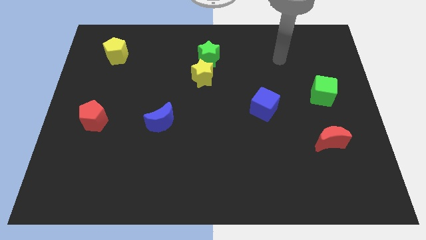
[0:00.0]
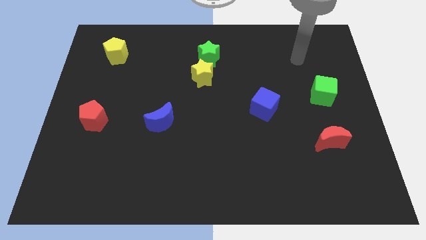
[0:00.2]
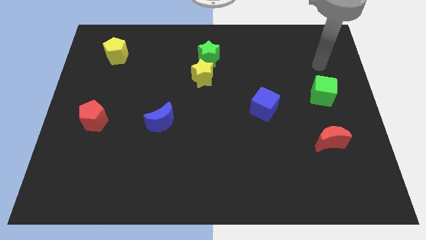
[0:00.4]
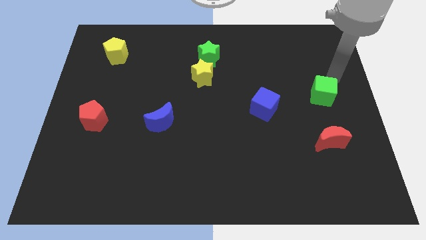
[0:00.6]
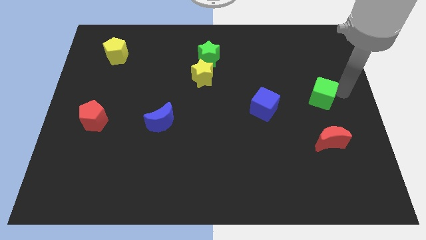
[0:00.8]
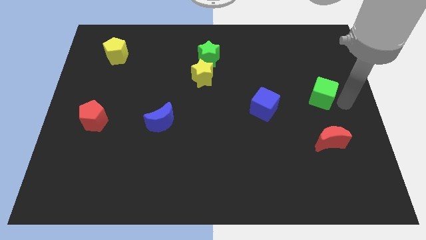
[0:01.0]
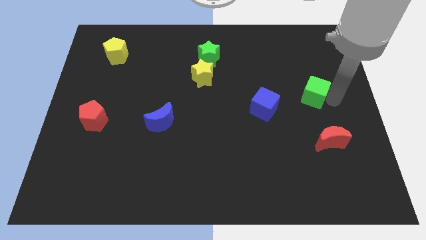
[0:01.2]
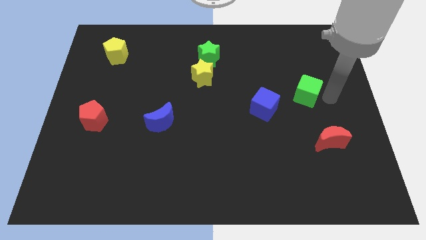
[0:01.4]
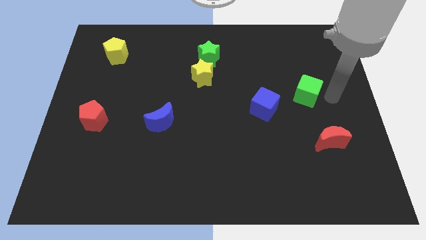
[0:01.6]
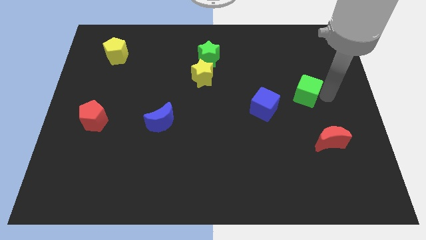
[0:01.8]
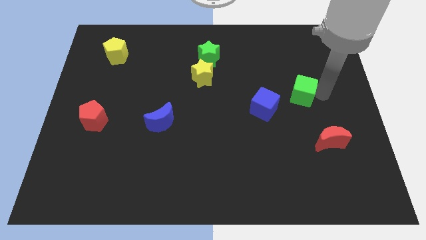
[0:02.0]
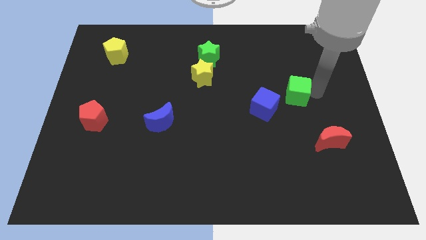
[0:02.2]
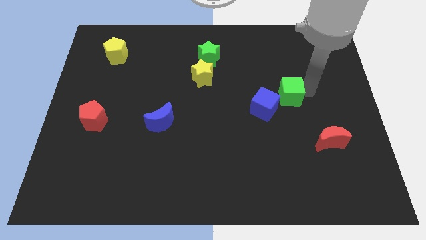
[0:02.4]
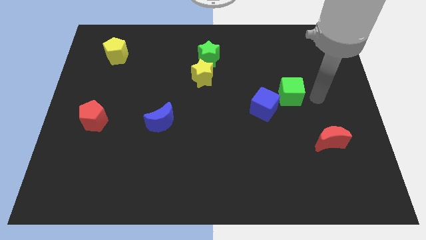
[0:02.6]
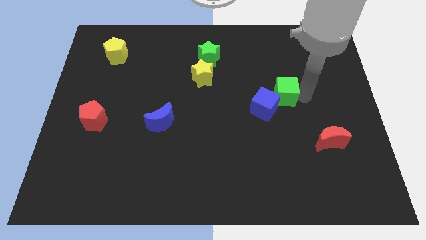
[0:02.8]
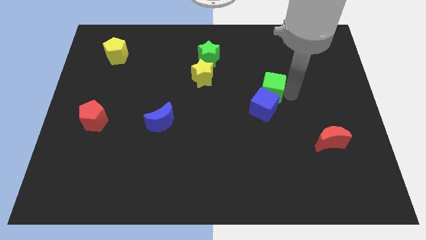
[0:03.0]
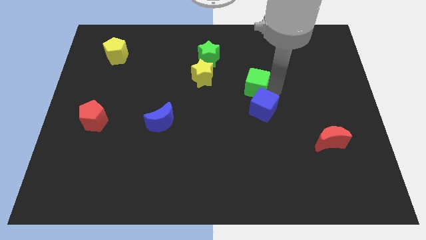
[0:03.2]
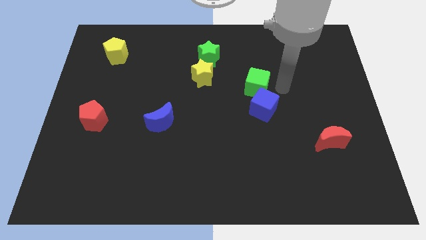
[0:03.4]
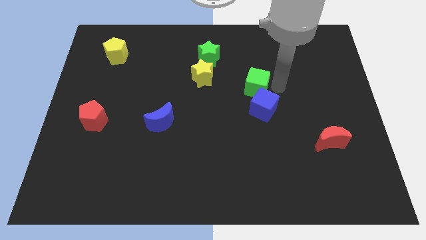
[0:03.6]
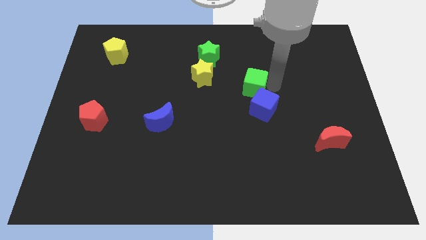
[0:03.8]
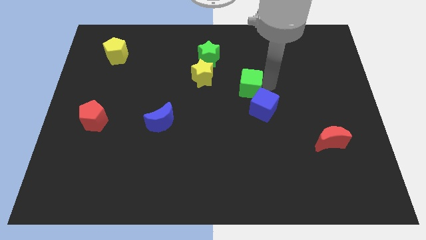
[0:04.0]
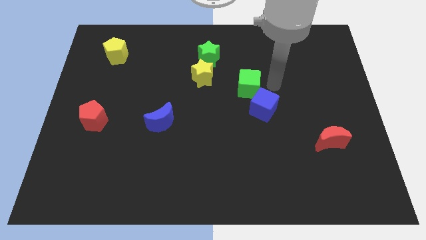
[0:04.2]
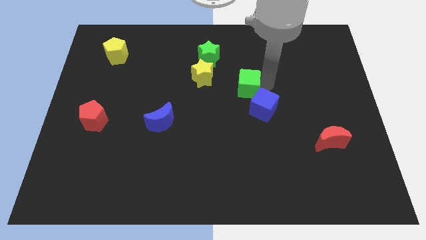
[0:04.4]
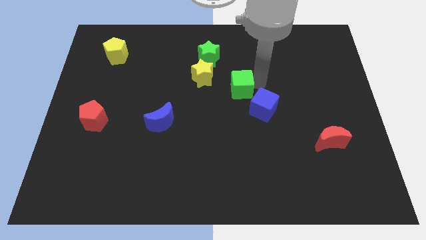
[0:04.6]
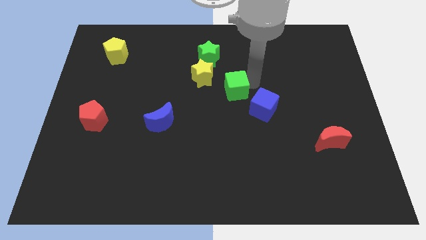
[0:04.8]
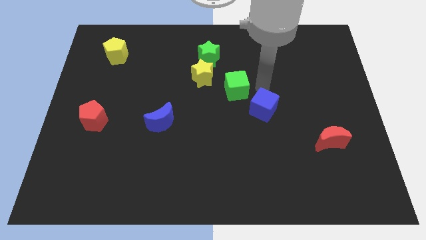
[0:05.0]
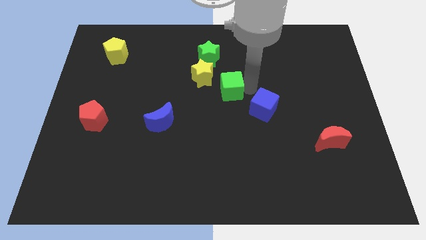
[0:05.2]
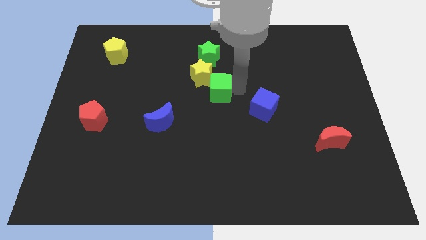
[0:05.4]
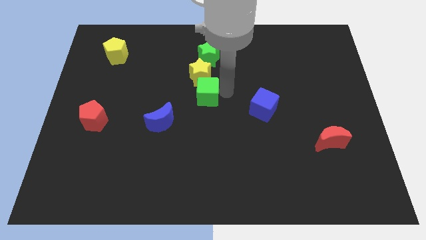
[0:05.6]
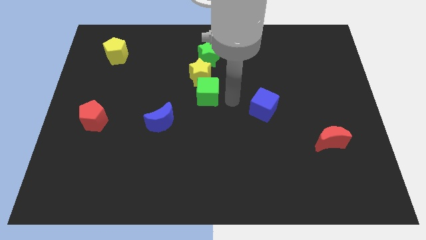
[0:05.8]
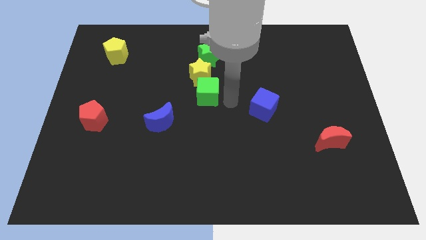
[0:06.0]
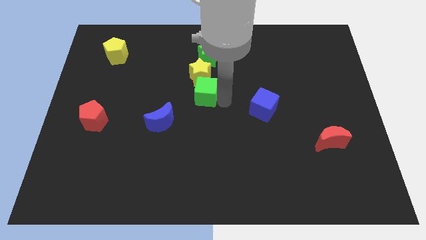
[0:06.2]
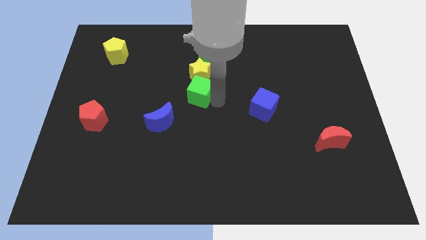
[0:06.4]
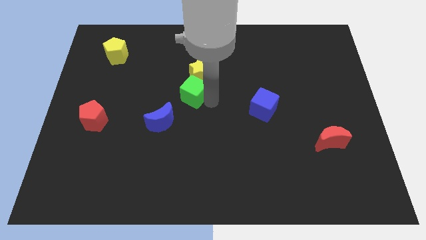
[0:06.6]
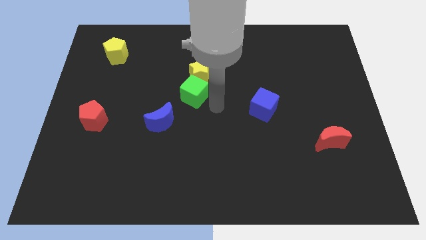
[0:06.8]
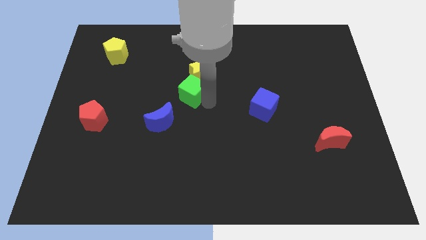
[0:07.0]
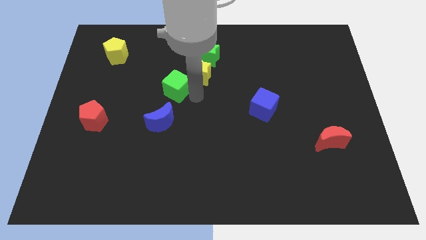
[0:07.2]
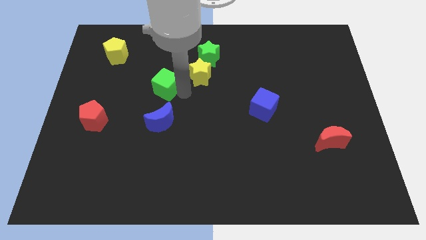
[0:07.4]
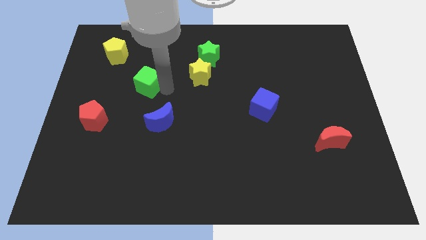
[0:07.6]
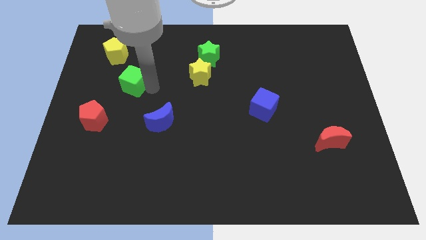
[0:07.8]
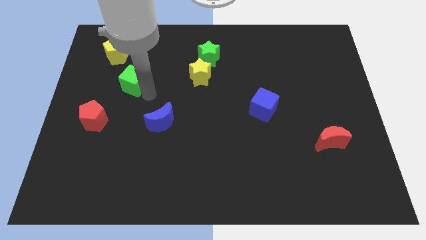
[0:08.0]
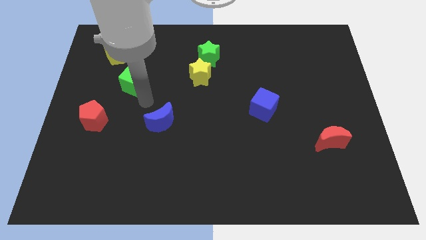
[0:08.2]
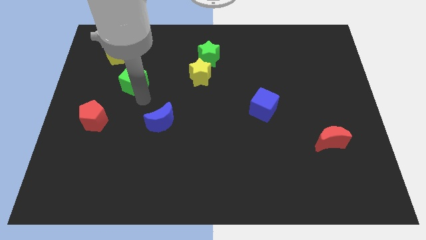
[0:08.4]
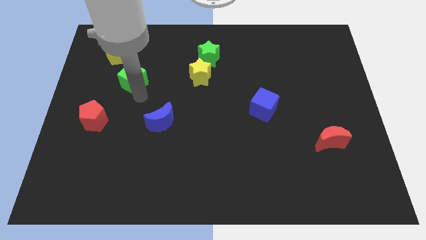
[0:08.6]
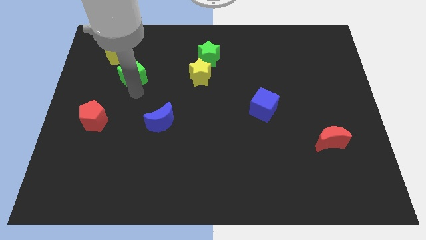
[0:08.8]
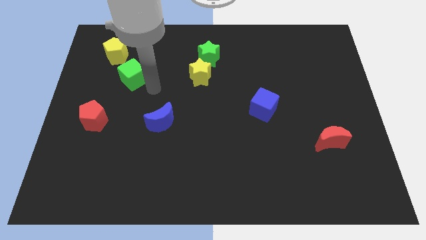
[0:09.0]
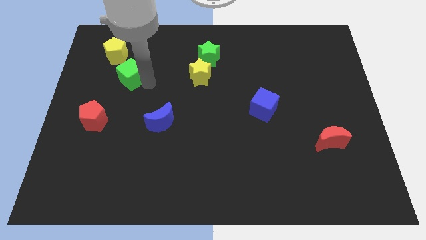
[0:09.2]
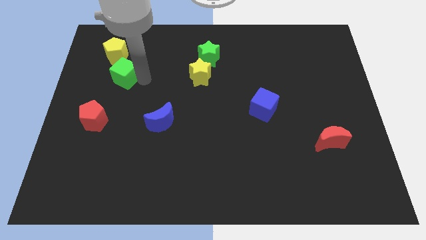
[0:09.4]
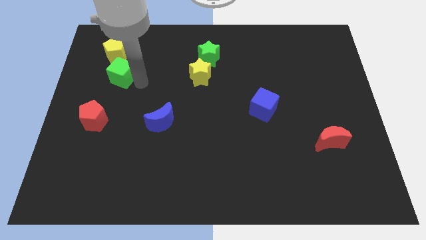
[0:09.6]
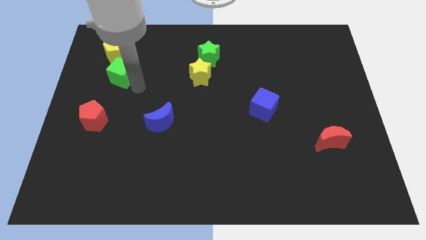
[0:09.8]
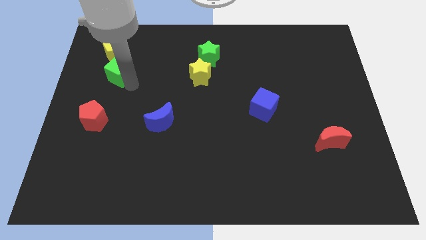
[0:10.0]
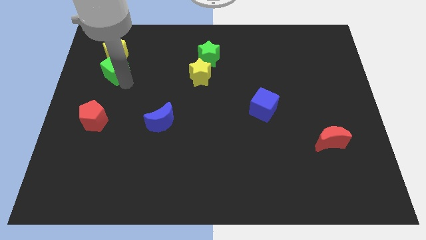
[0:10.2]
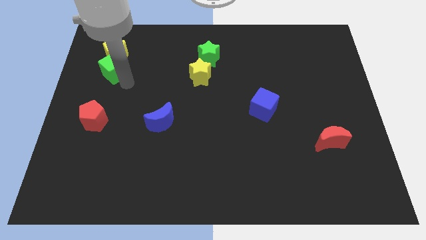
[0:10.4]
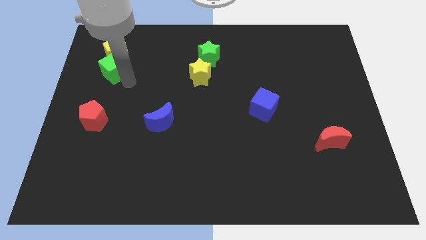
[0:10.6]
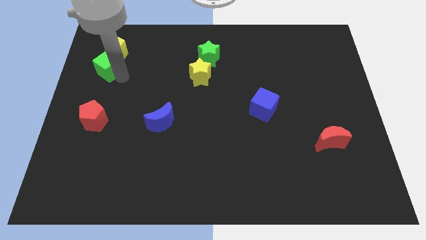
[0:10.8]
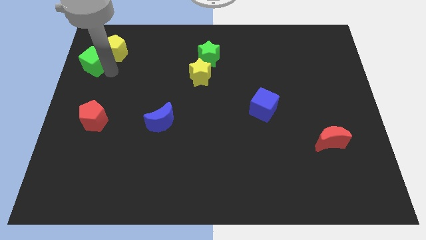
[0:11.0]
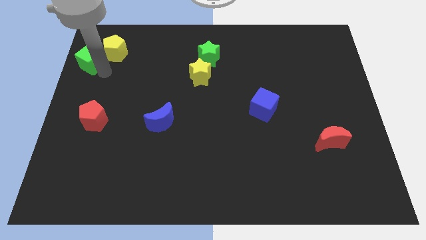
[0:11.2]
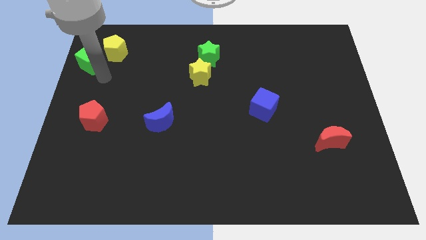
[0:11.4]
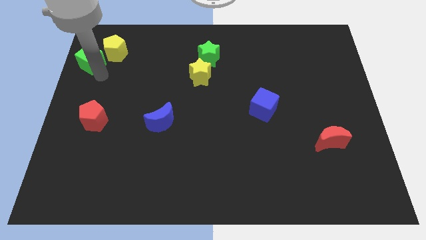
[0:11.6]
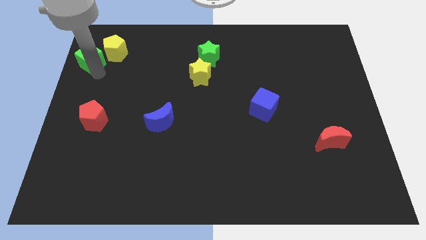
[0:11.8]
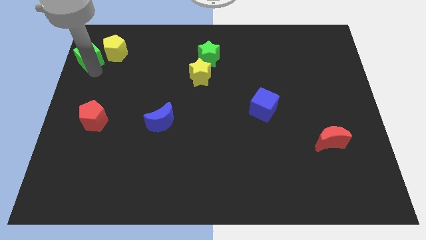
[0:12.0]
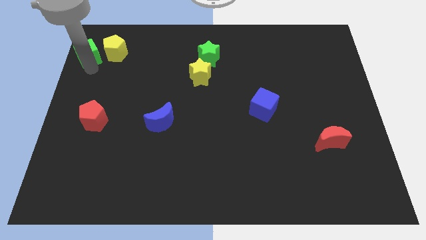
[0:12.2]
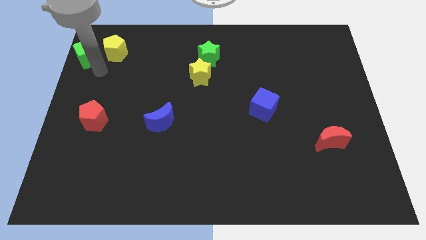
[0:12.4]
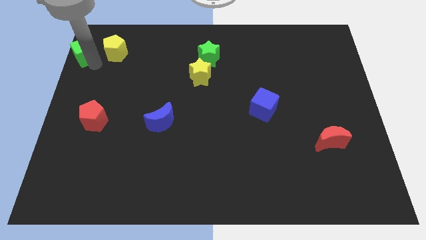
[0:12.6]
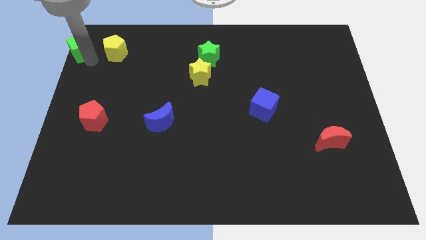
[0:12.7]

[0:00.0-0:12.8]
slide the green cube to the top left corner
